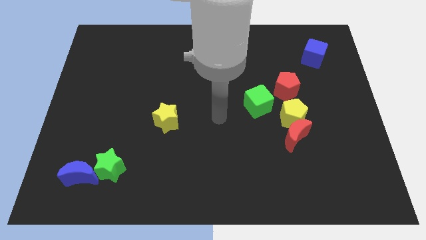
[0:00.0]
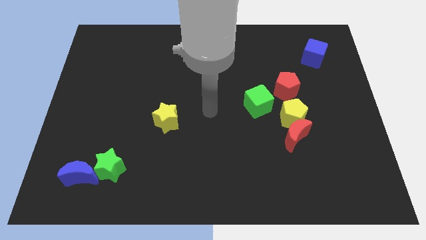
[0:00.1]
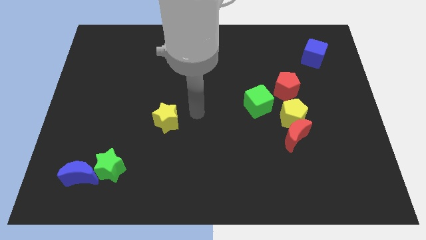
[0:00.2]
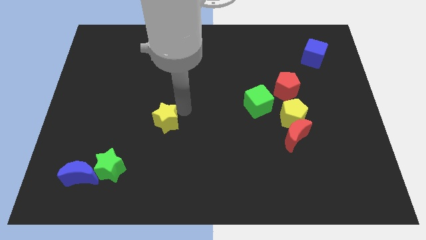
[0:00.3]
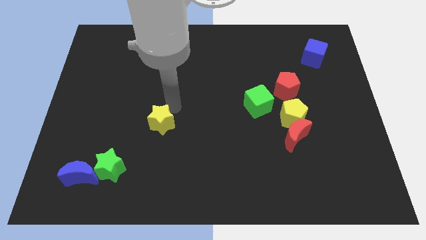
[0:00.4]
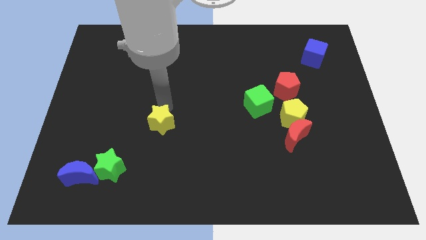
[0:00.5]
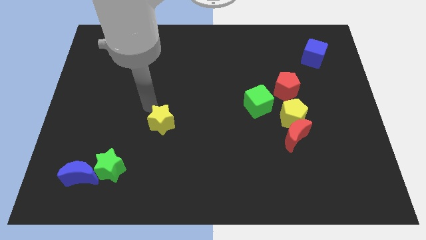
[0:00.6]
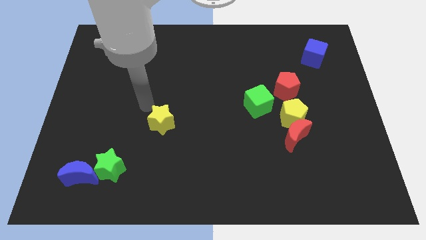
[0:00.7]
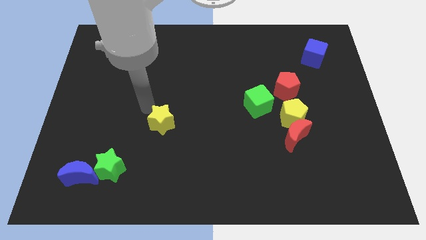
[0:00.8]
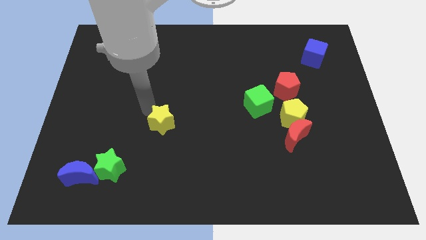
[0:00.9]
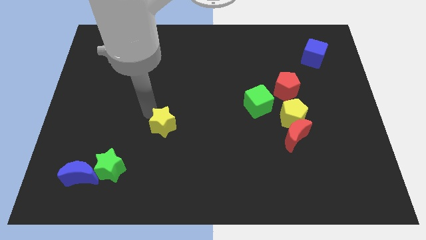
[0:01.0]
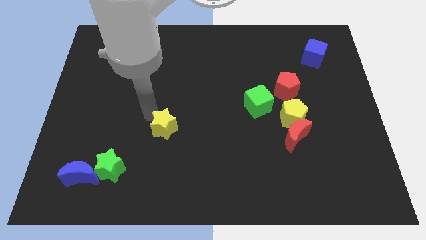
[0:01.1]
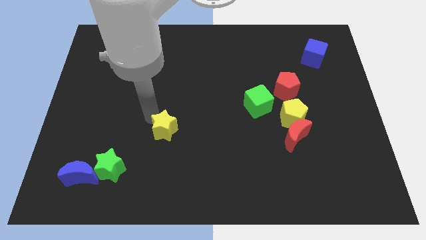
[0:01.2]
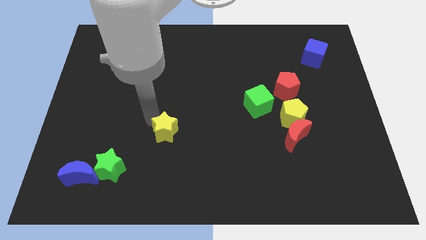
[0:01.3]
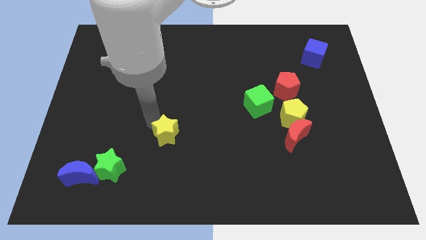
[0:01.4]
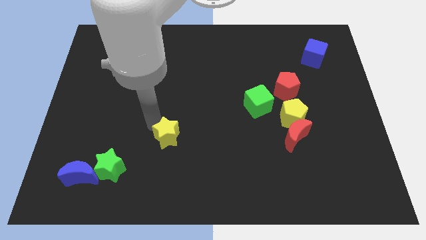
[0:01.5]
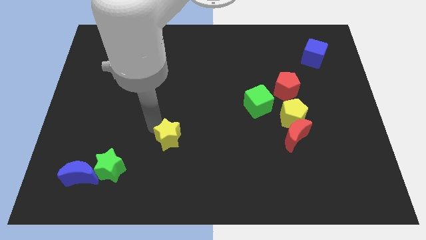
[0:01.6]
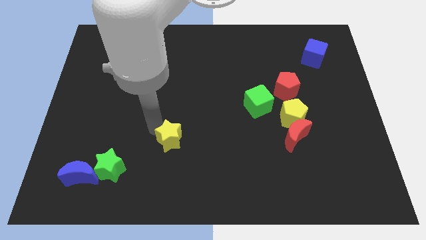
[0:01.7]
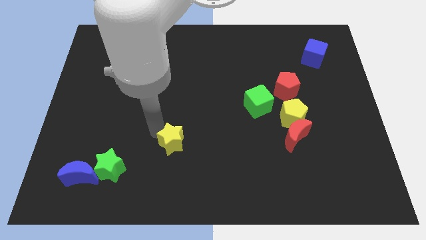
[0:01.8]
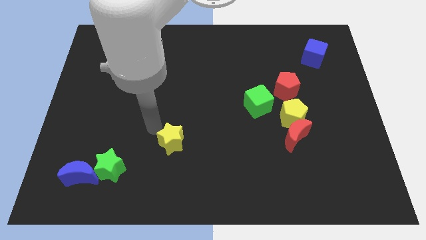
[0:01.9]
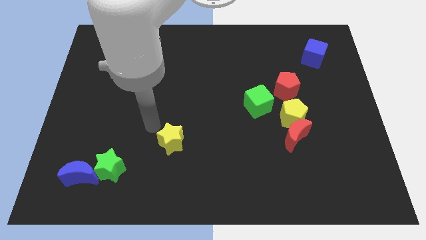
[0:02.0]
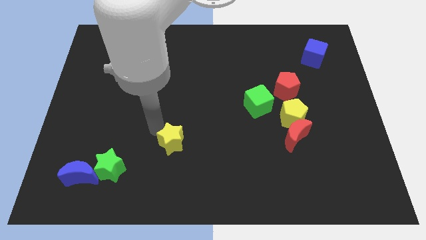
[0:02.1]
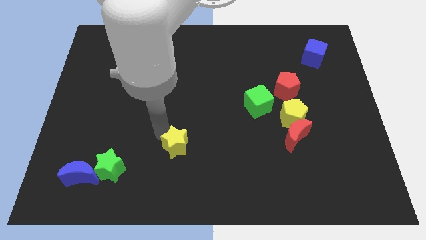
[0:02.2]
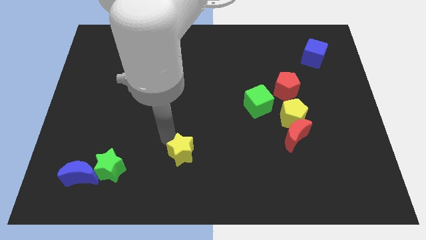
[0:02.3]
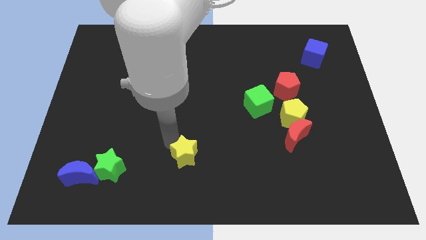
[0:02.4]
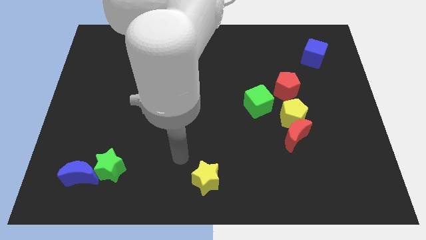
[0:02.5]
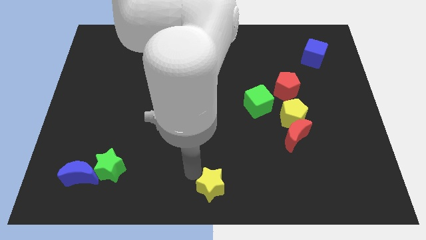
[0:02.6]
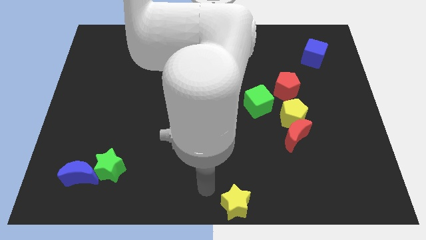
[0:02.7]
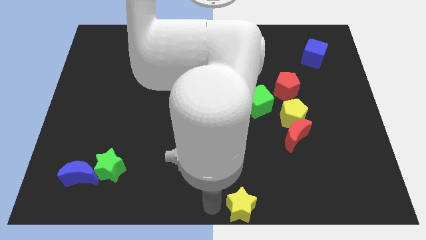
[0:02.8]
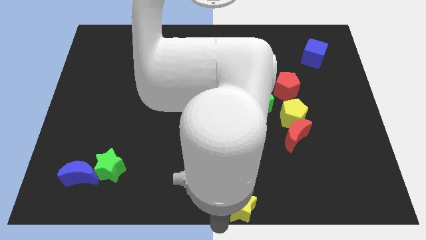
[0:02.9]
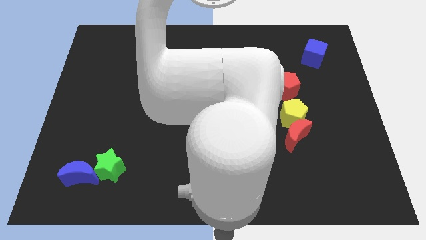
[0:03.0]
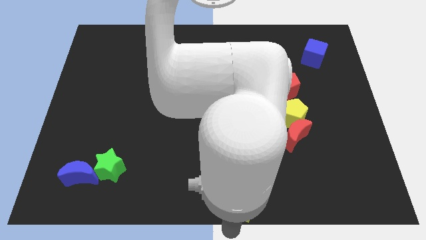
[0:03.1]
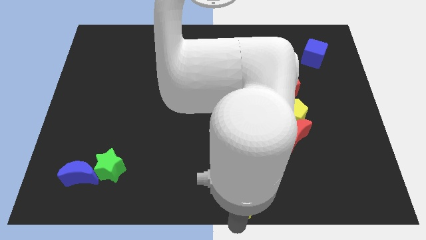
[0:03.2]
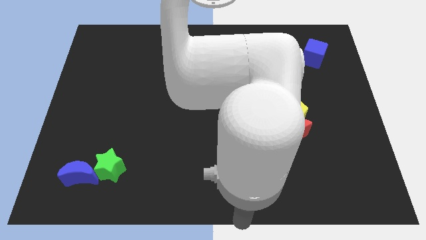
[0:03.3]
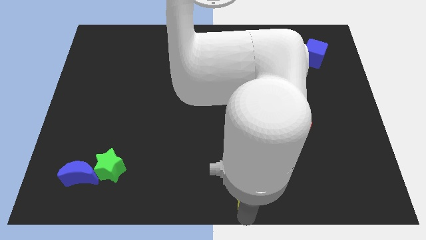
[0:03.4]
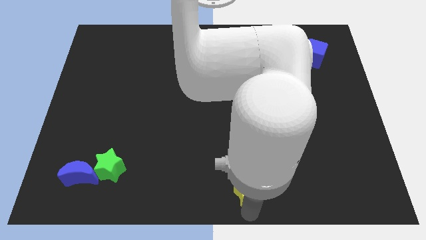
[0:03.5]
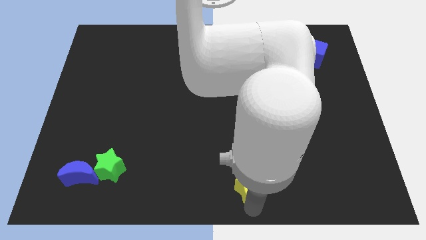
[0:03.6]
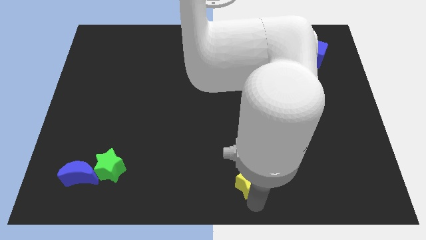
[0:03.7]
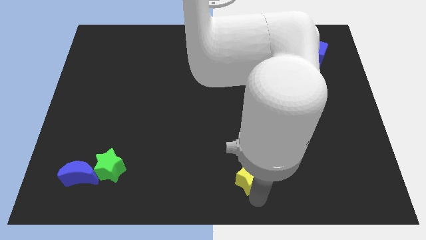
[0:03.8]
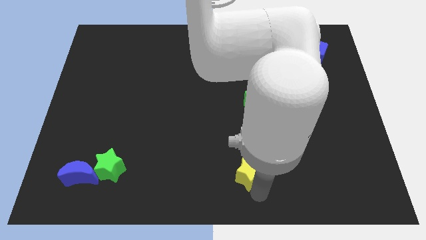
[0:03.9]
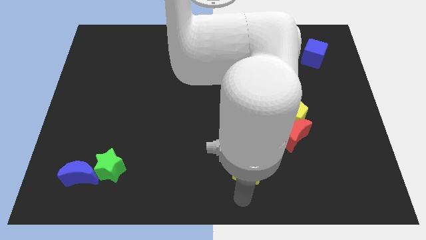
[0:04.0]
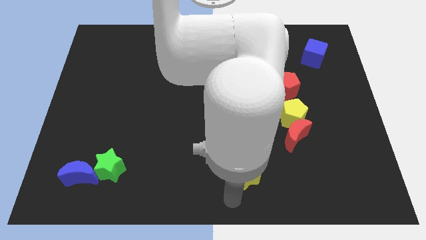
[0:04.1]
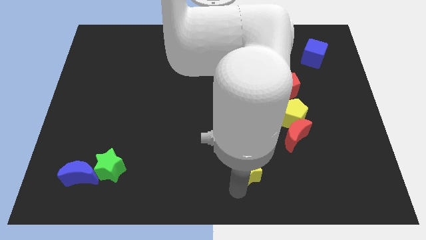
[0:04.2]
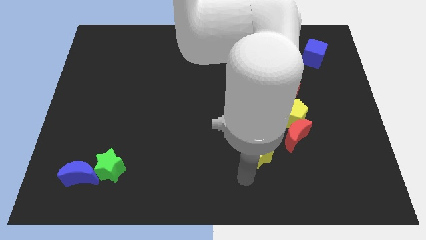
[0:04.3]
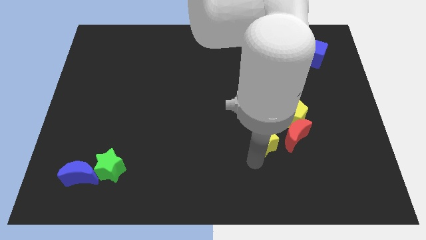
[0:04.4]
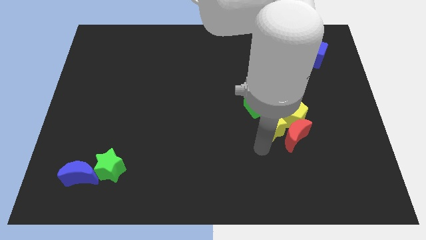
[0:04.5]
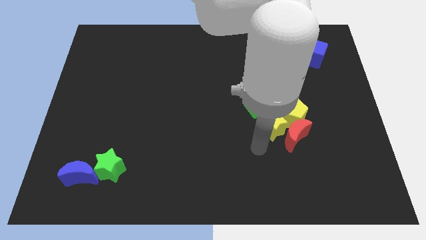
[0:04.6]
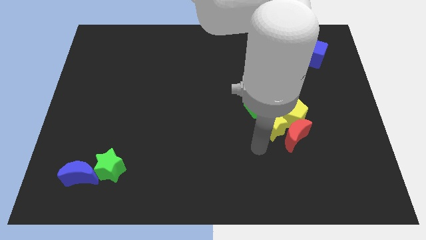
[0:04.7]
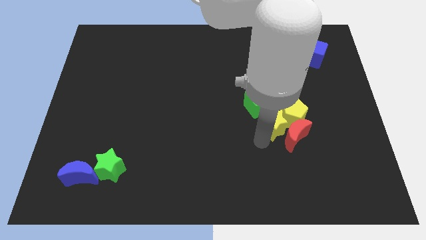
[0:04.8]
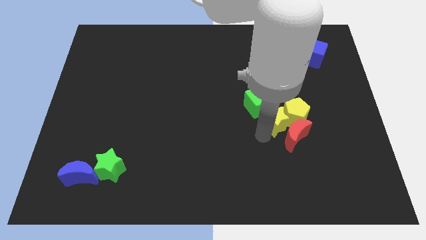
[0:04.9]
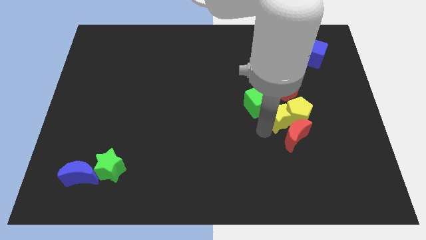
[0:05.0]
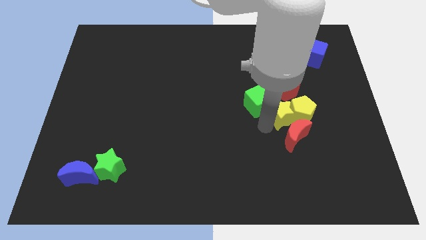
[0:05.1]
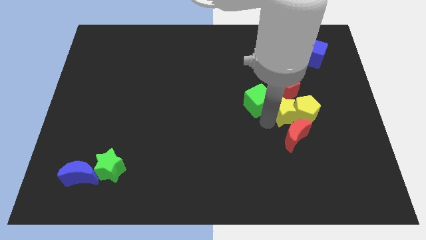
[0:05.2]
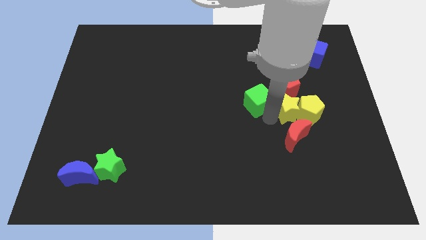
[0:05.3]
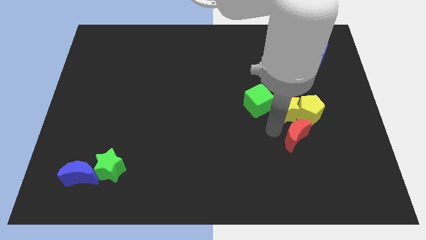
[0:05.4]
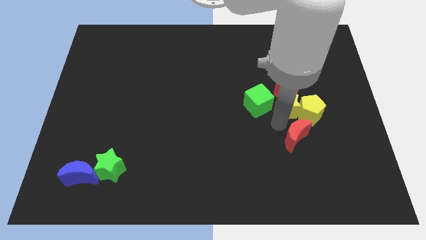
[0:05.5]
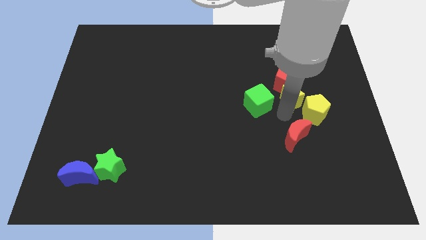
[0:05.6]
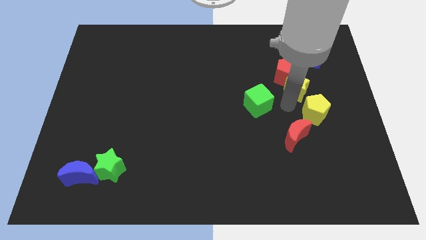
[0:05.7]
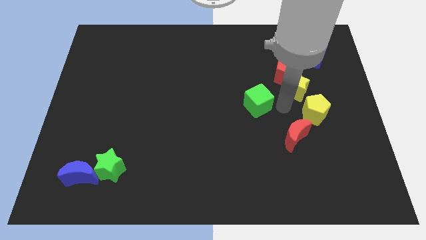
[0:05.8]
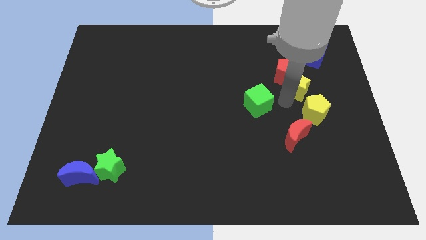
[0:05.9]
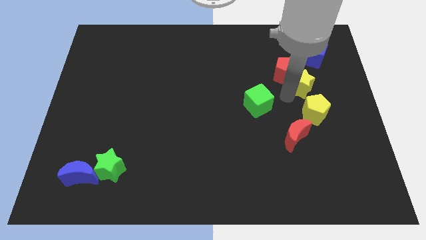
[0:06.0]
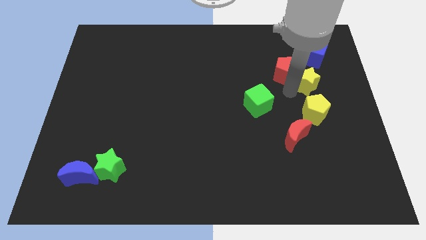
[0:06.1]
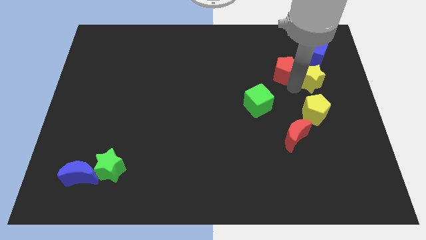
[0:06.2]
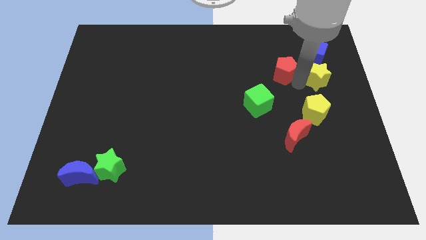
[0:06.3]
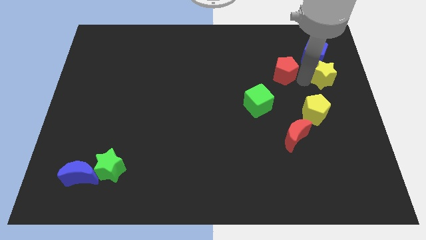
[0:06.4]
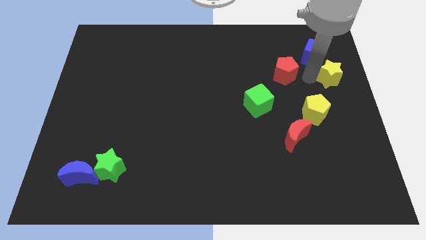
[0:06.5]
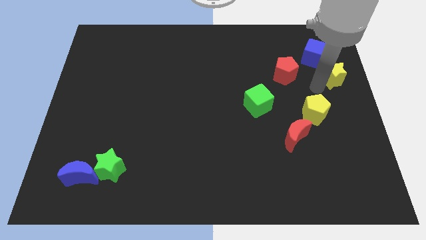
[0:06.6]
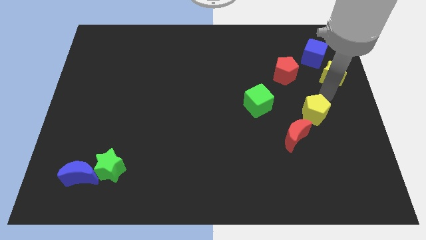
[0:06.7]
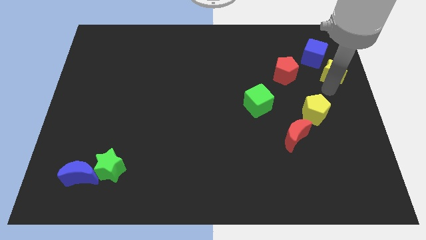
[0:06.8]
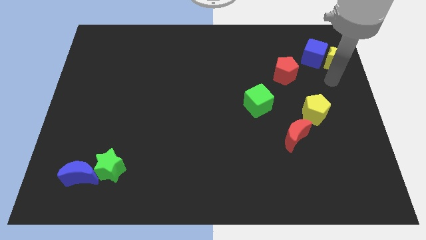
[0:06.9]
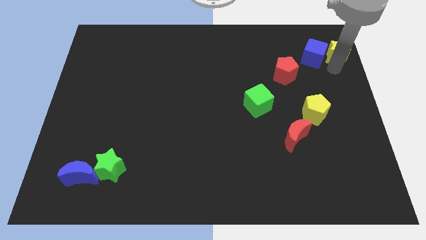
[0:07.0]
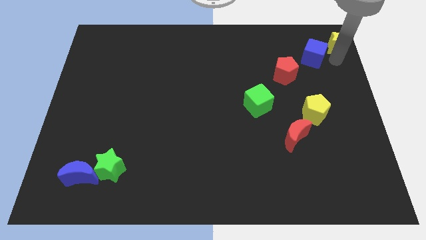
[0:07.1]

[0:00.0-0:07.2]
slide the yellow star to the top right corner
